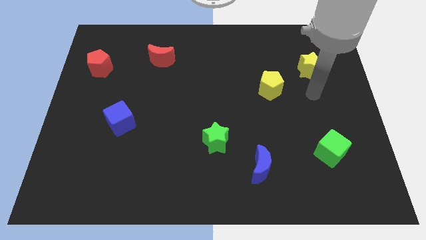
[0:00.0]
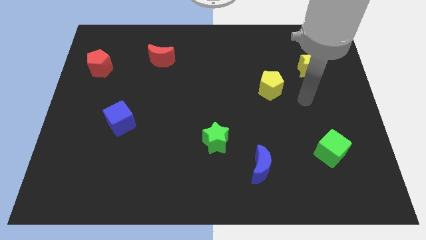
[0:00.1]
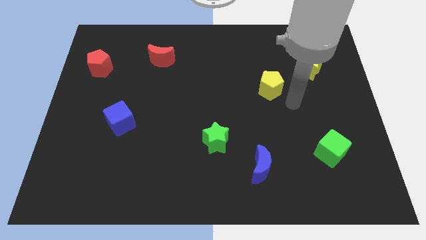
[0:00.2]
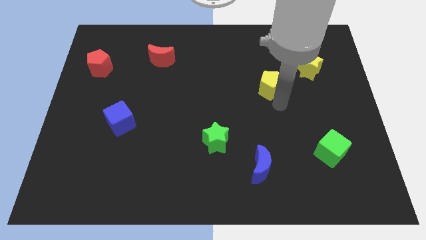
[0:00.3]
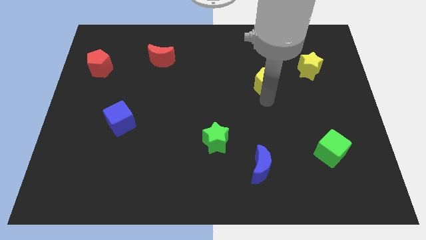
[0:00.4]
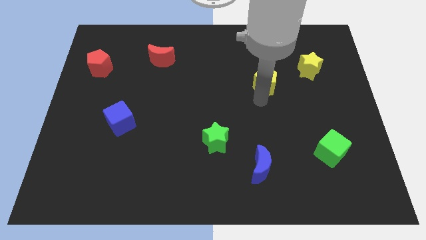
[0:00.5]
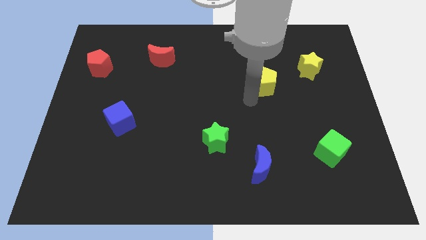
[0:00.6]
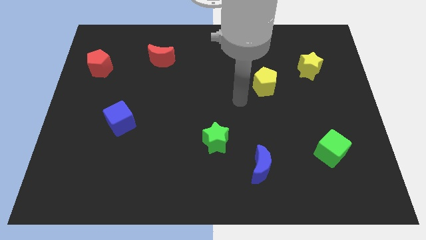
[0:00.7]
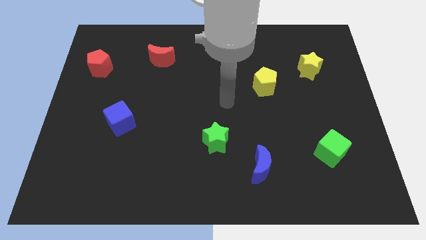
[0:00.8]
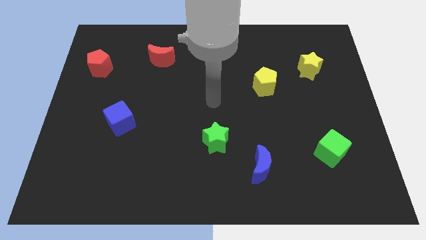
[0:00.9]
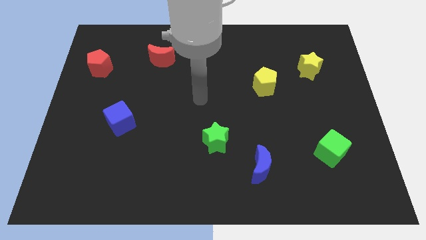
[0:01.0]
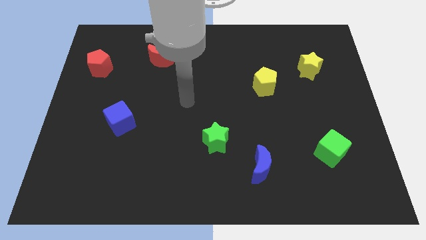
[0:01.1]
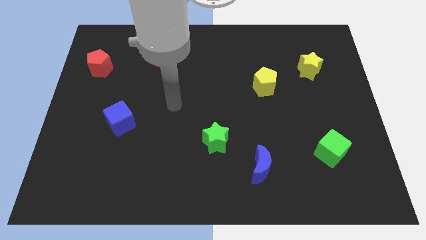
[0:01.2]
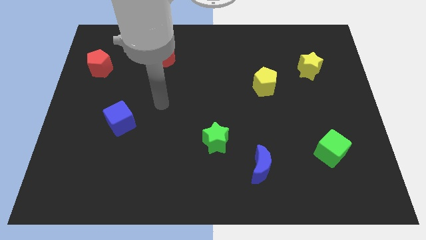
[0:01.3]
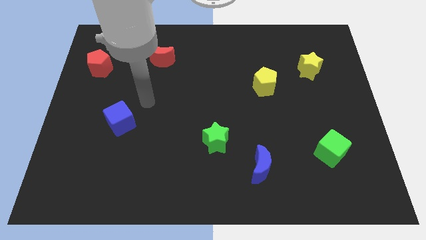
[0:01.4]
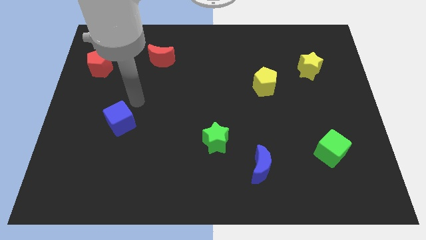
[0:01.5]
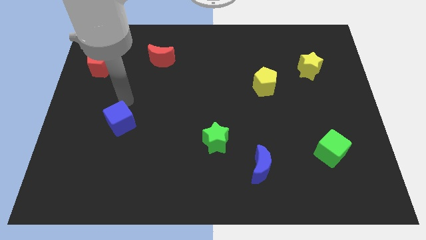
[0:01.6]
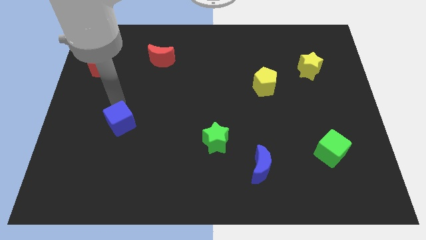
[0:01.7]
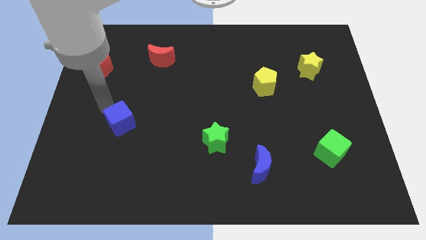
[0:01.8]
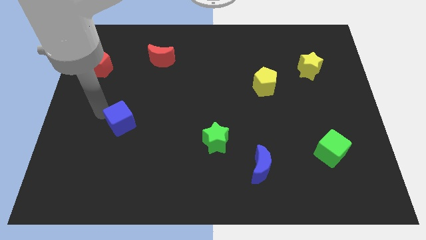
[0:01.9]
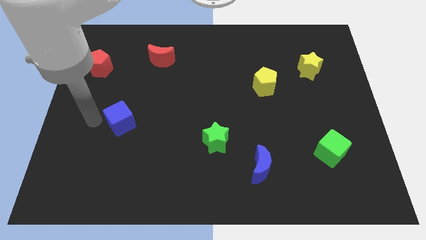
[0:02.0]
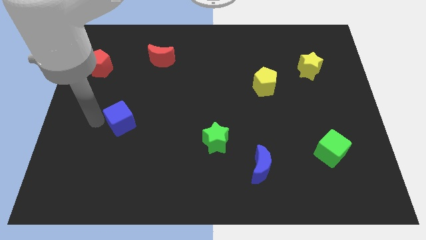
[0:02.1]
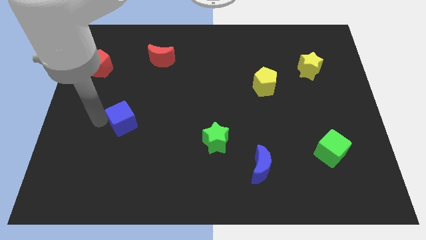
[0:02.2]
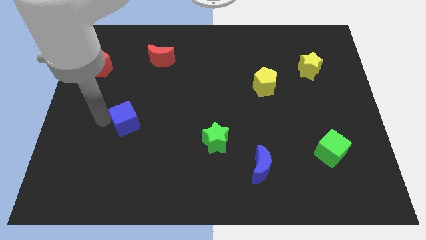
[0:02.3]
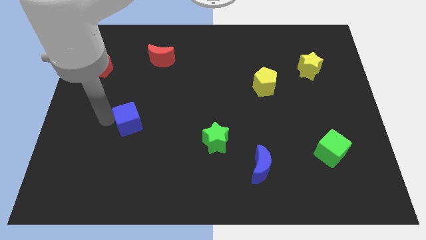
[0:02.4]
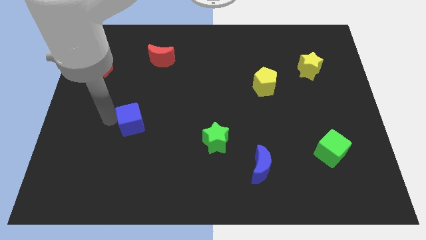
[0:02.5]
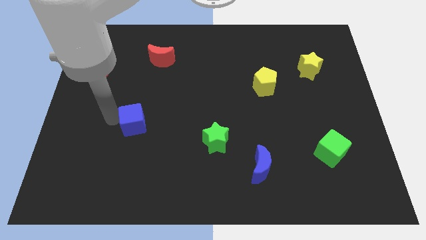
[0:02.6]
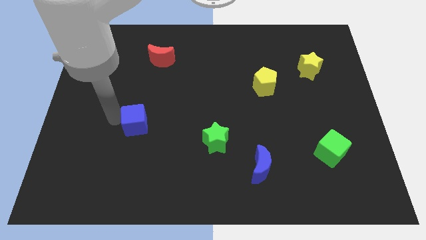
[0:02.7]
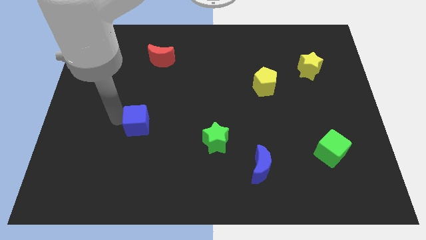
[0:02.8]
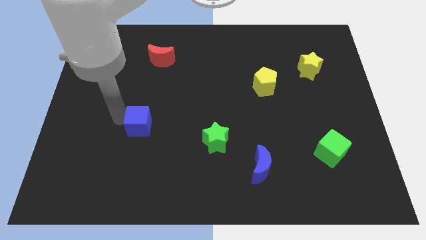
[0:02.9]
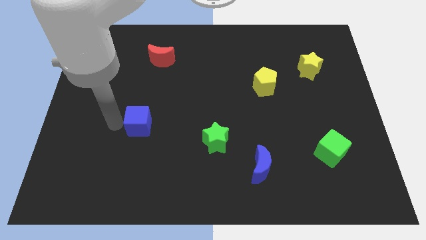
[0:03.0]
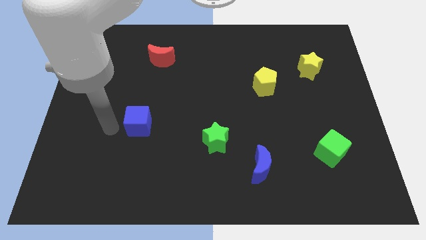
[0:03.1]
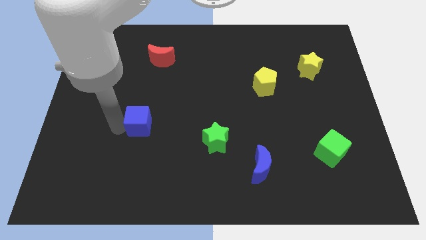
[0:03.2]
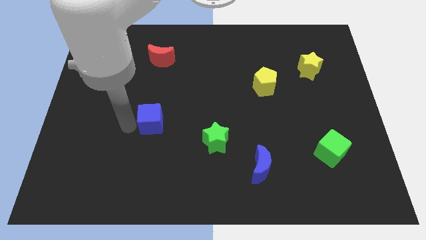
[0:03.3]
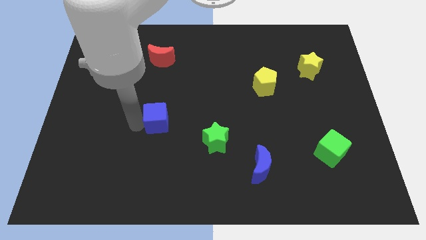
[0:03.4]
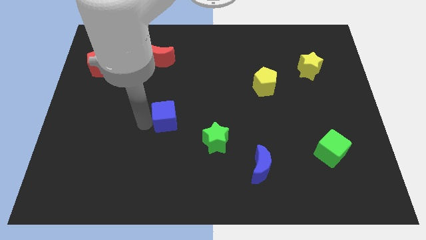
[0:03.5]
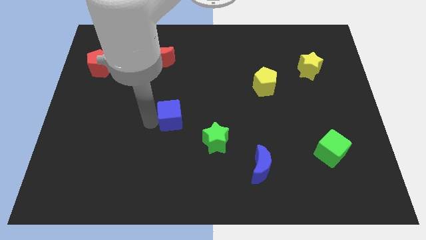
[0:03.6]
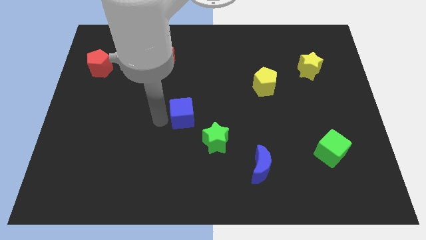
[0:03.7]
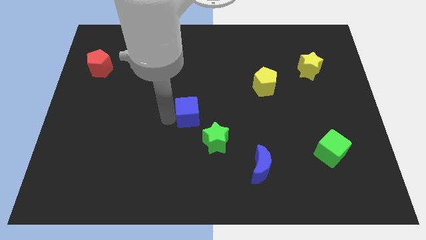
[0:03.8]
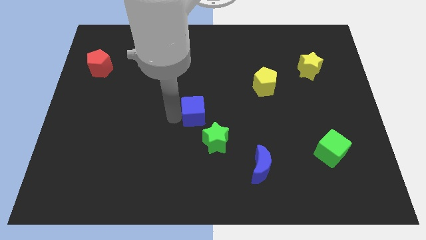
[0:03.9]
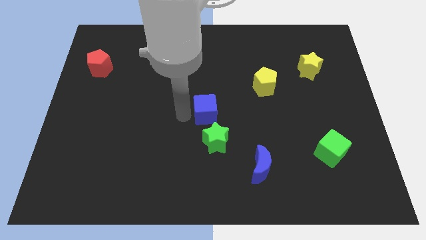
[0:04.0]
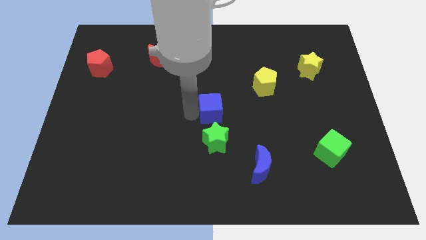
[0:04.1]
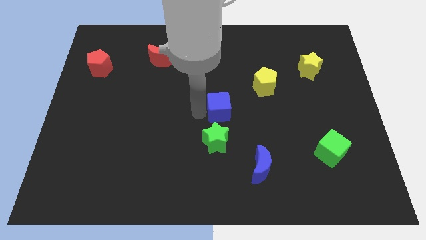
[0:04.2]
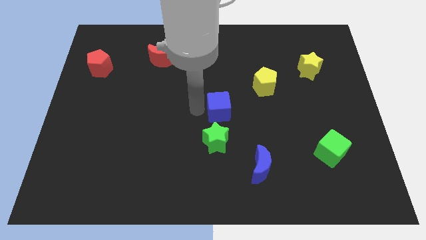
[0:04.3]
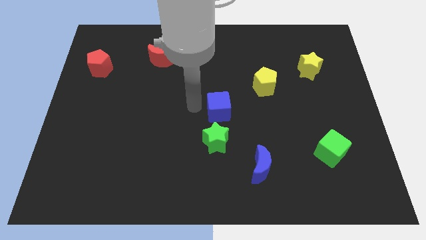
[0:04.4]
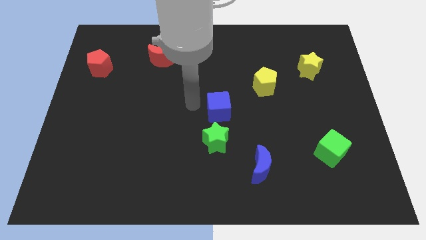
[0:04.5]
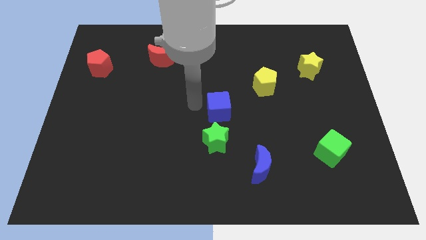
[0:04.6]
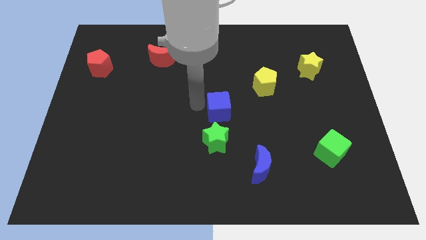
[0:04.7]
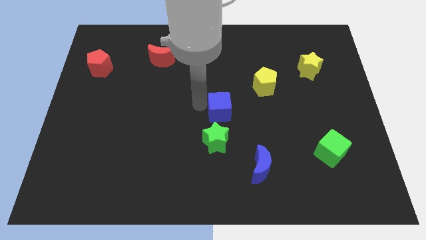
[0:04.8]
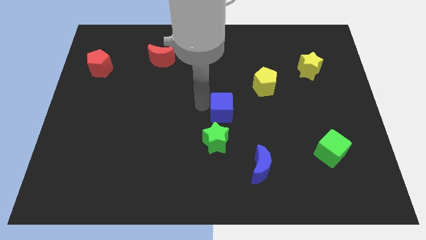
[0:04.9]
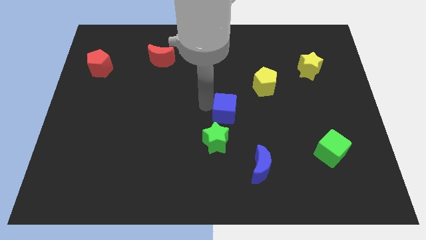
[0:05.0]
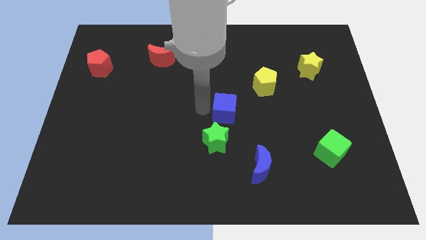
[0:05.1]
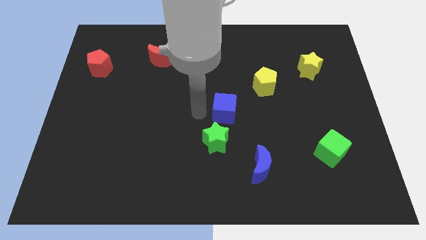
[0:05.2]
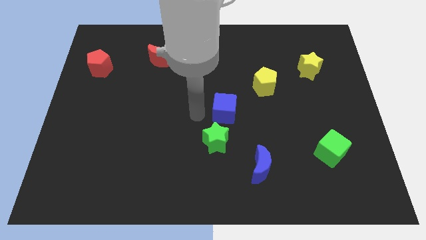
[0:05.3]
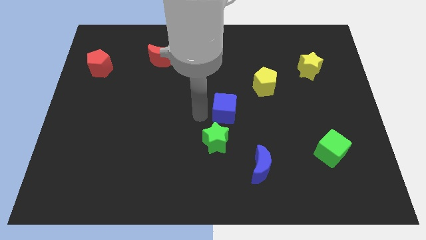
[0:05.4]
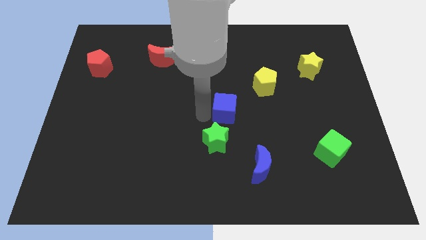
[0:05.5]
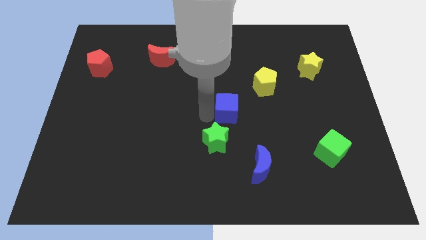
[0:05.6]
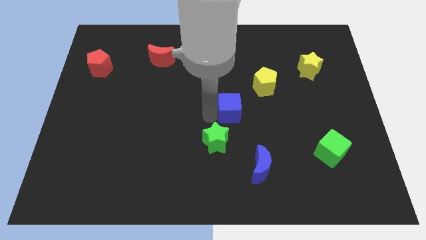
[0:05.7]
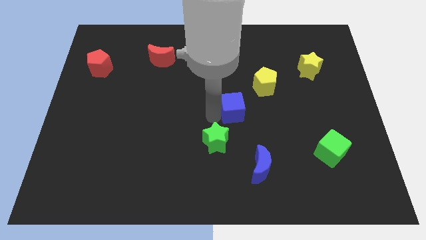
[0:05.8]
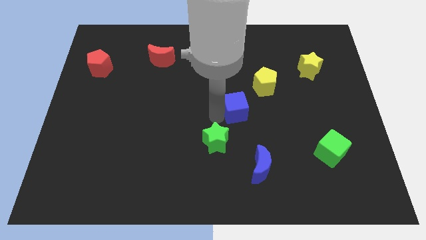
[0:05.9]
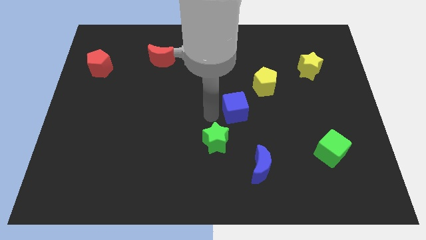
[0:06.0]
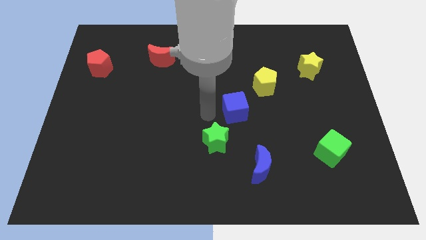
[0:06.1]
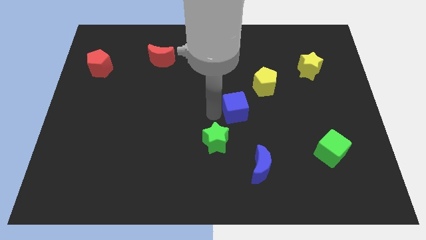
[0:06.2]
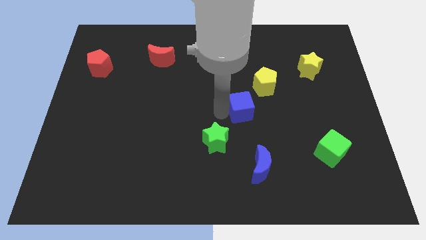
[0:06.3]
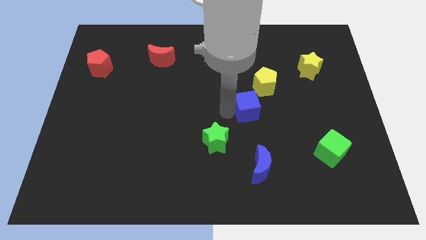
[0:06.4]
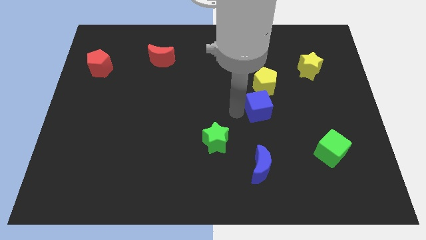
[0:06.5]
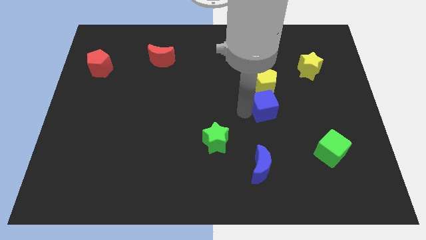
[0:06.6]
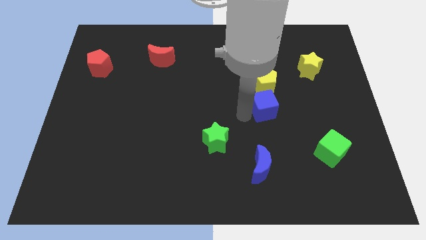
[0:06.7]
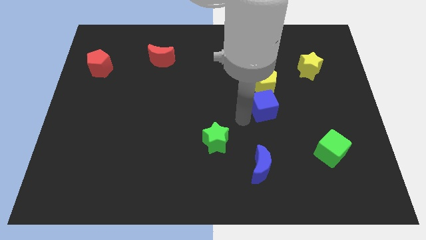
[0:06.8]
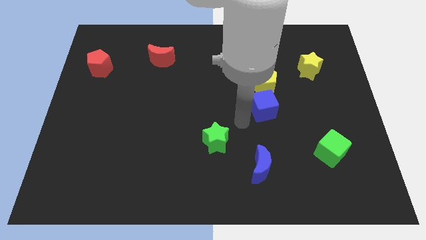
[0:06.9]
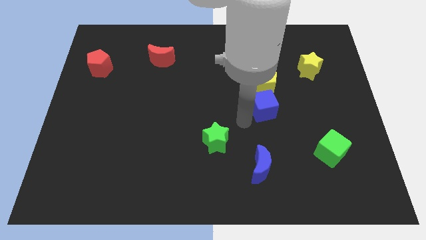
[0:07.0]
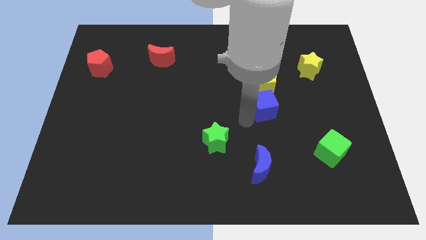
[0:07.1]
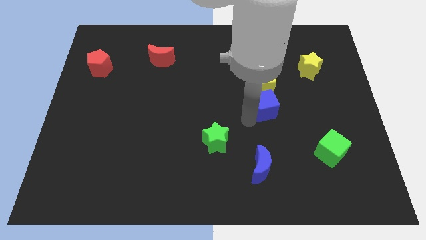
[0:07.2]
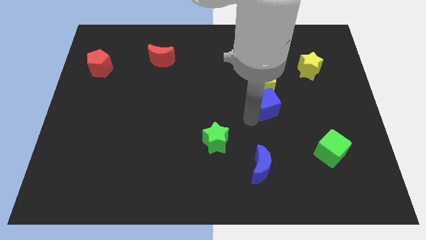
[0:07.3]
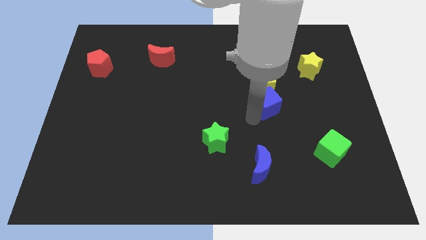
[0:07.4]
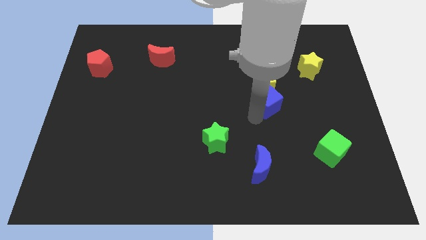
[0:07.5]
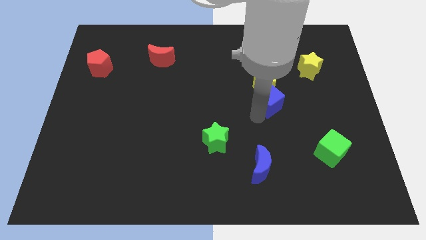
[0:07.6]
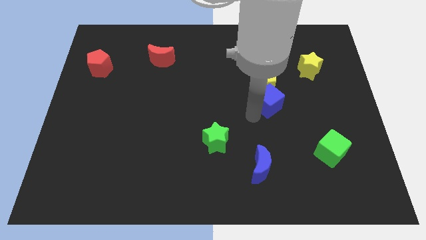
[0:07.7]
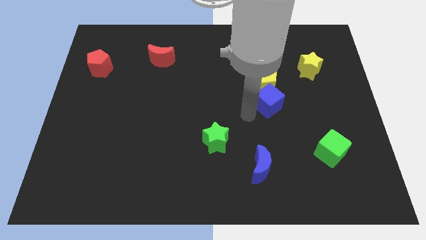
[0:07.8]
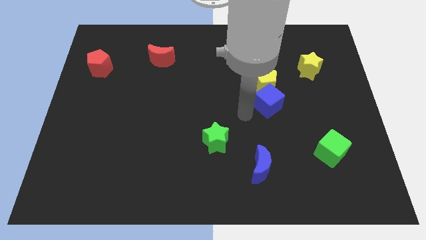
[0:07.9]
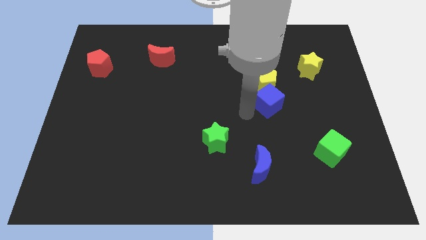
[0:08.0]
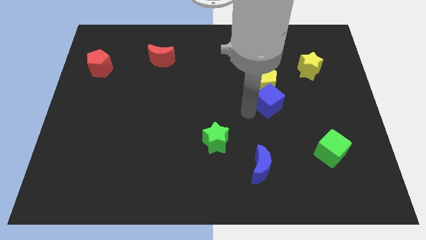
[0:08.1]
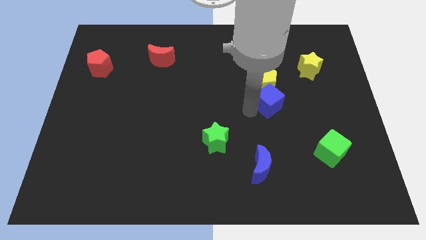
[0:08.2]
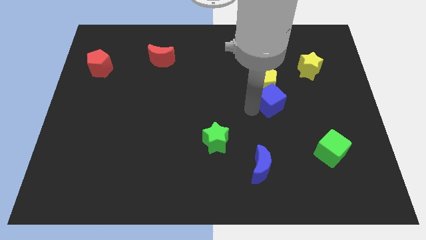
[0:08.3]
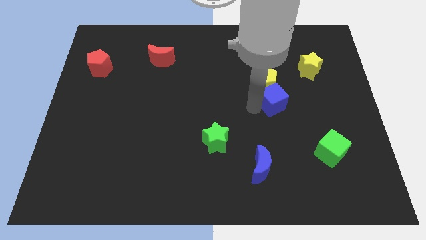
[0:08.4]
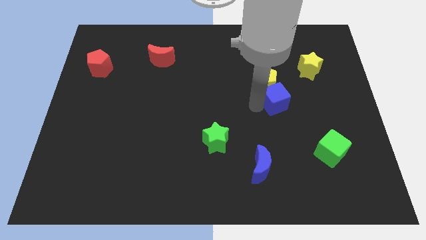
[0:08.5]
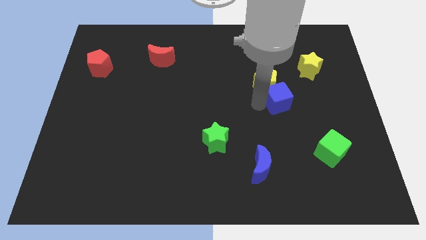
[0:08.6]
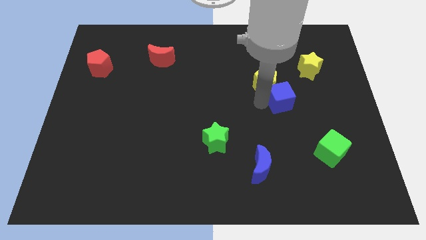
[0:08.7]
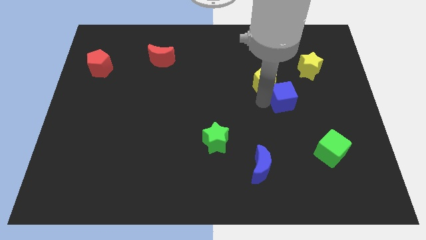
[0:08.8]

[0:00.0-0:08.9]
push the blue cube diagonally down and to the left of the yellow star
